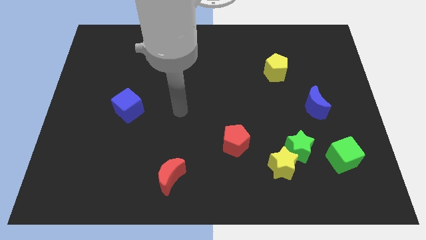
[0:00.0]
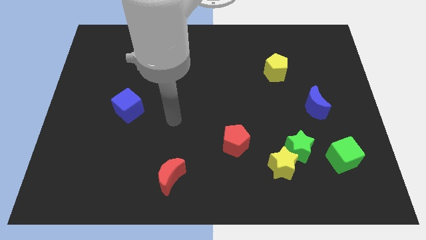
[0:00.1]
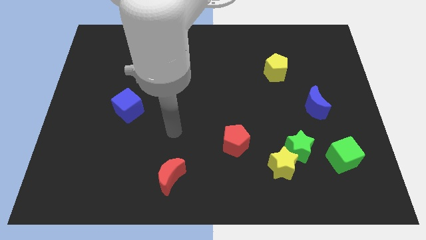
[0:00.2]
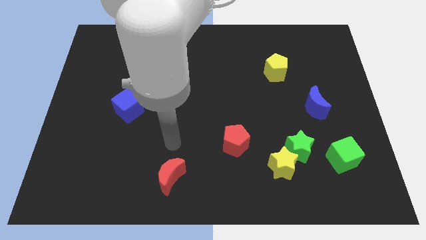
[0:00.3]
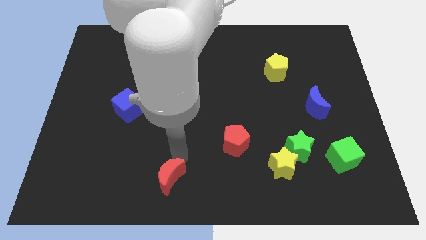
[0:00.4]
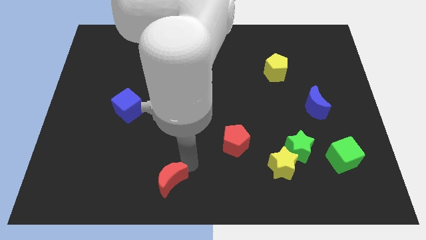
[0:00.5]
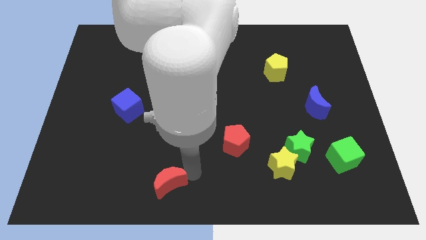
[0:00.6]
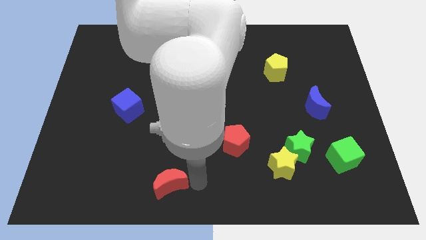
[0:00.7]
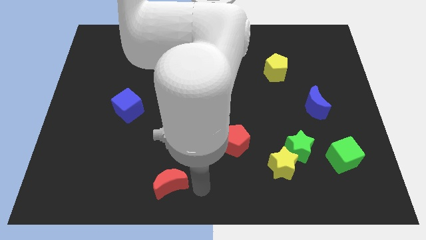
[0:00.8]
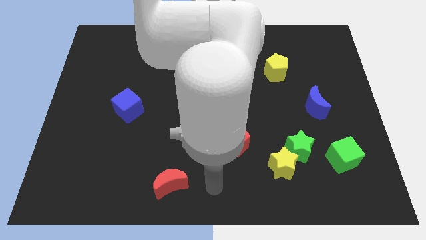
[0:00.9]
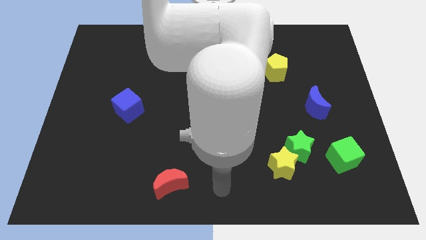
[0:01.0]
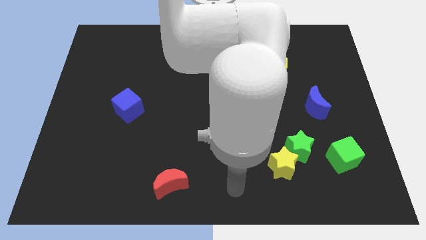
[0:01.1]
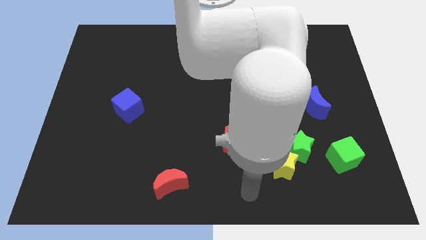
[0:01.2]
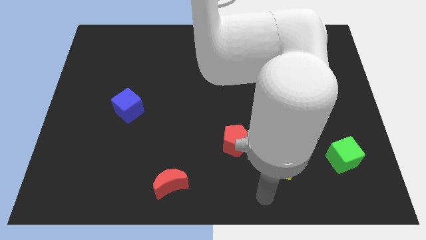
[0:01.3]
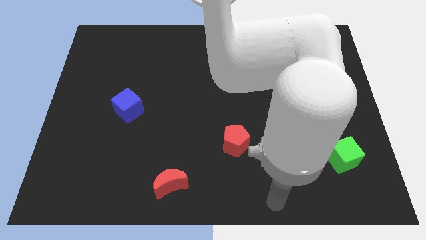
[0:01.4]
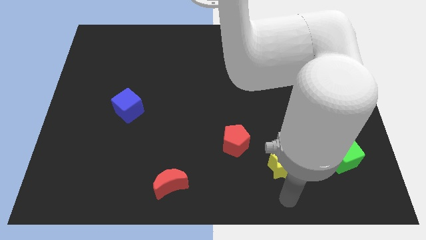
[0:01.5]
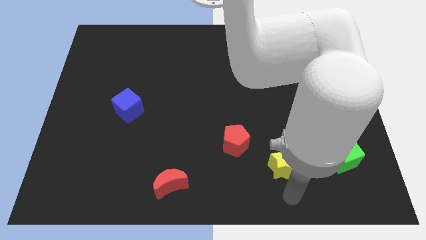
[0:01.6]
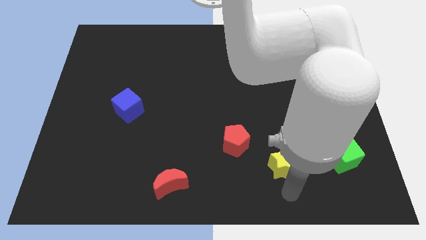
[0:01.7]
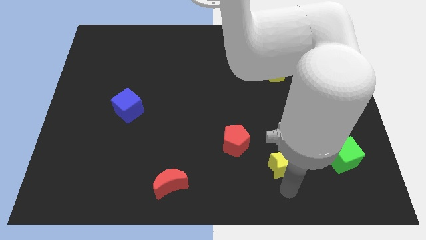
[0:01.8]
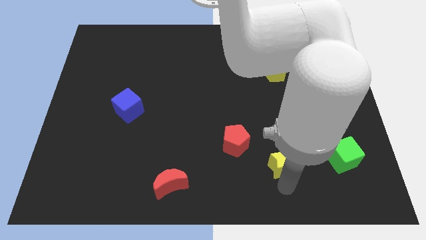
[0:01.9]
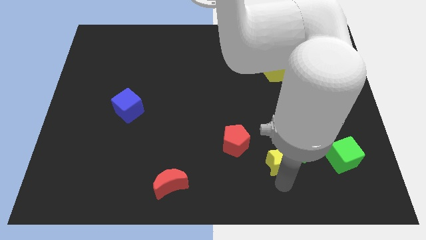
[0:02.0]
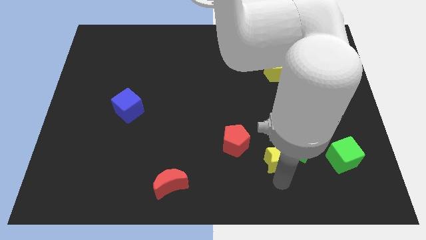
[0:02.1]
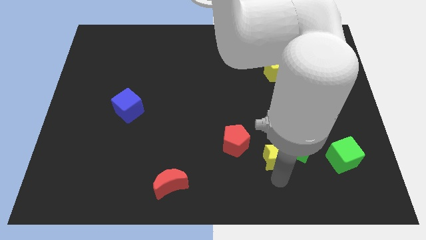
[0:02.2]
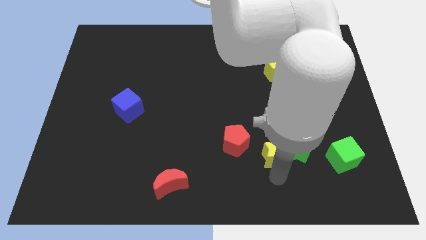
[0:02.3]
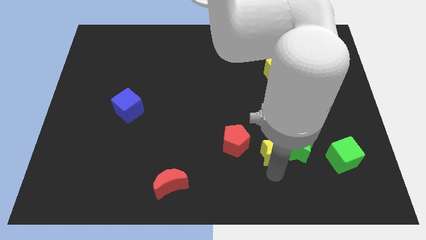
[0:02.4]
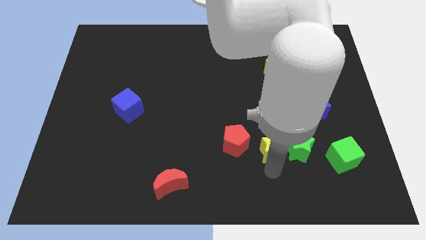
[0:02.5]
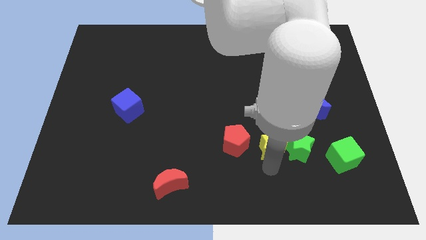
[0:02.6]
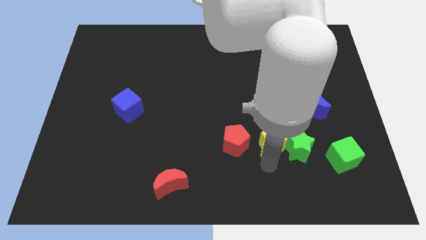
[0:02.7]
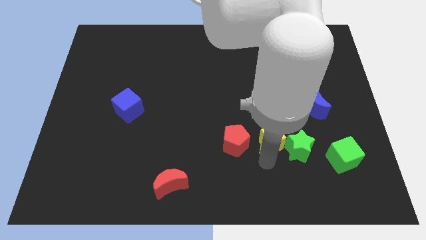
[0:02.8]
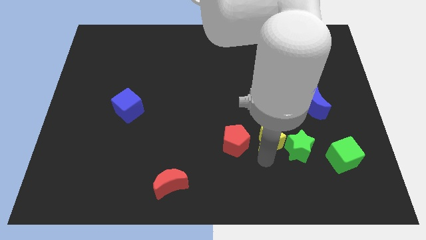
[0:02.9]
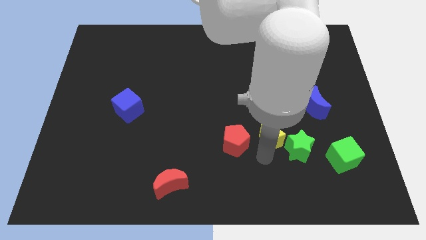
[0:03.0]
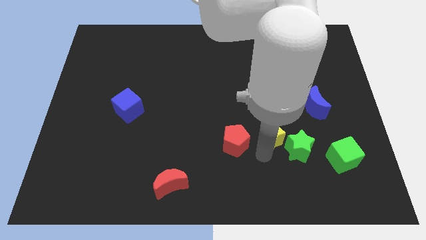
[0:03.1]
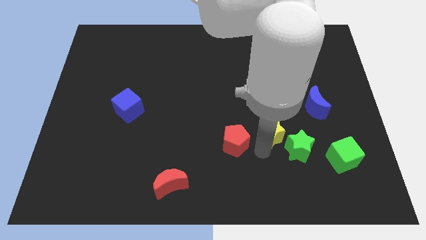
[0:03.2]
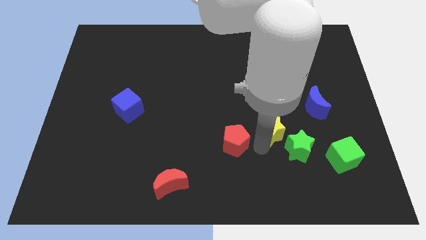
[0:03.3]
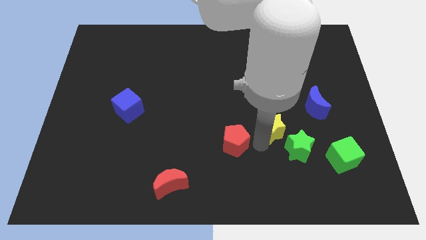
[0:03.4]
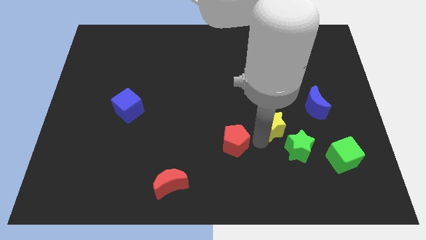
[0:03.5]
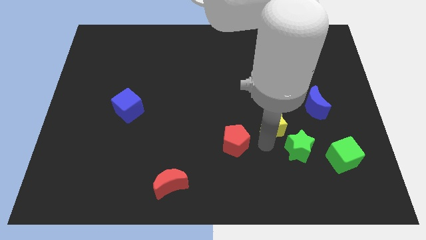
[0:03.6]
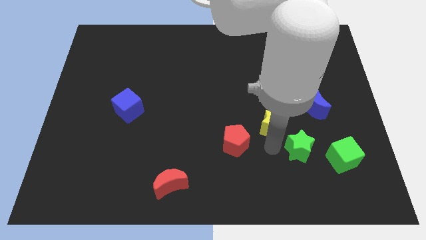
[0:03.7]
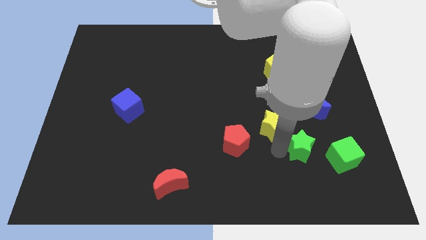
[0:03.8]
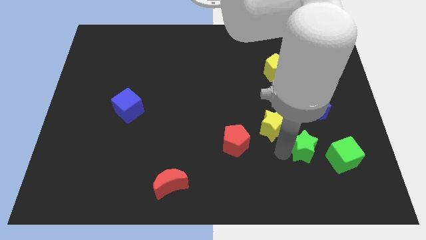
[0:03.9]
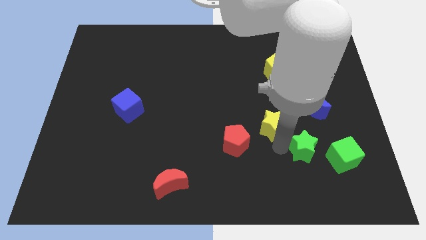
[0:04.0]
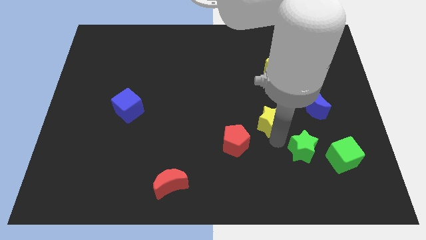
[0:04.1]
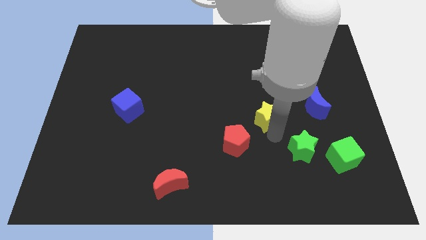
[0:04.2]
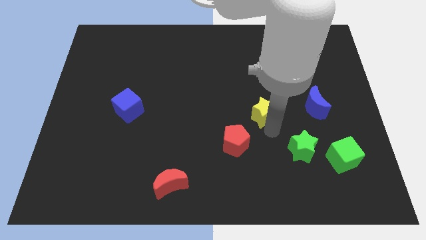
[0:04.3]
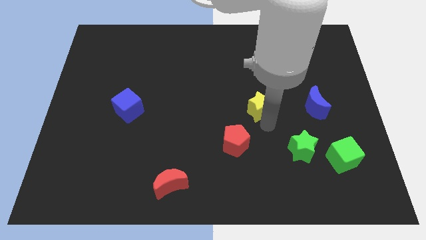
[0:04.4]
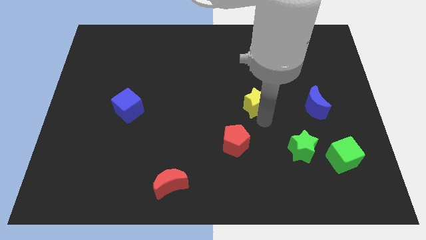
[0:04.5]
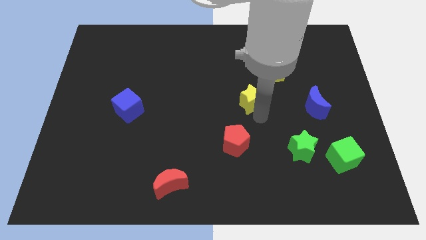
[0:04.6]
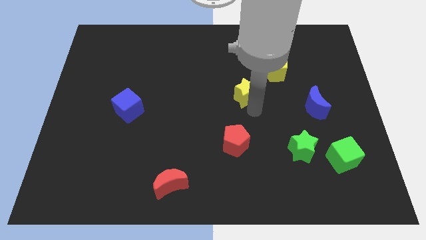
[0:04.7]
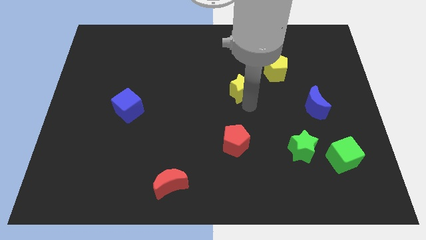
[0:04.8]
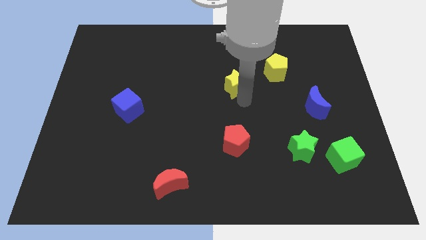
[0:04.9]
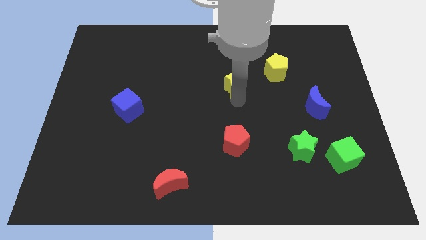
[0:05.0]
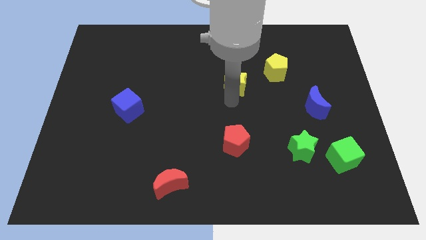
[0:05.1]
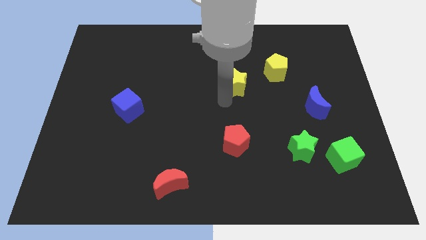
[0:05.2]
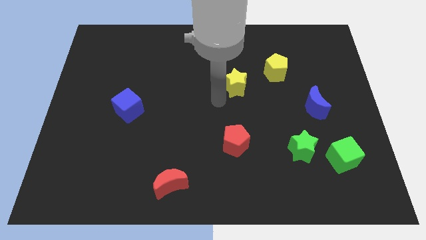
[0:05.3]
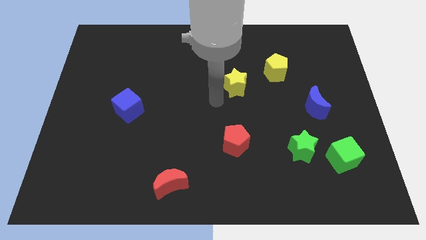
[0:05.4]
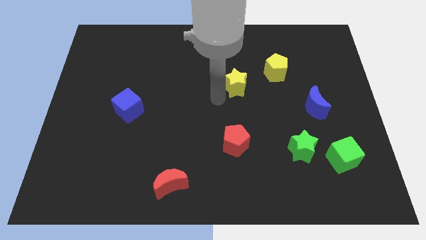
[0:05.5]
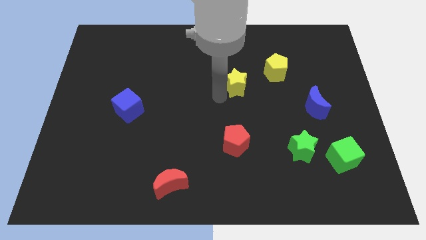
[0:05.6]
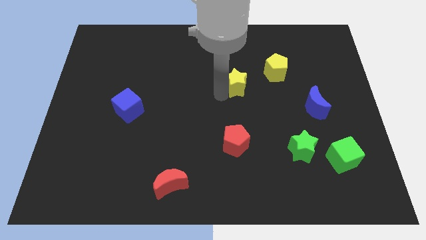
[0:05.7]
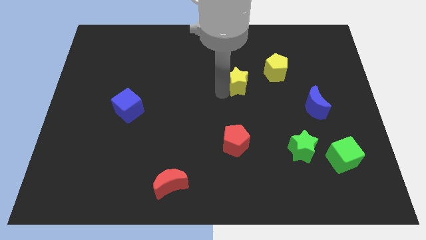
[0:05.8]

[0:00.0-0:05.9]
move the yellow star upwards

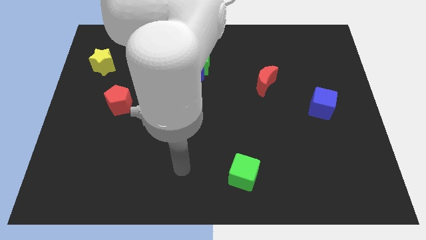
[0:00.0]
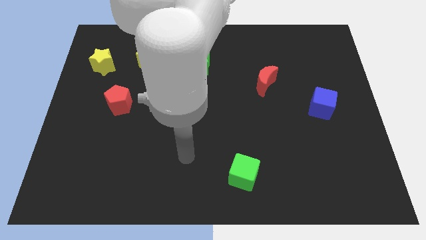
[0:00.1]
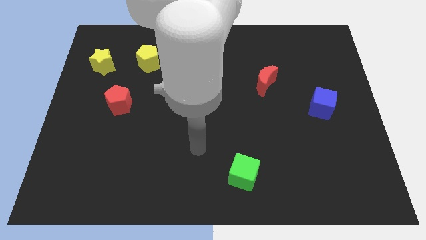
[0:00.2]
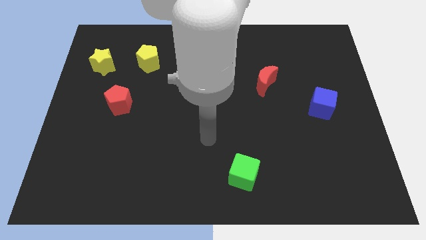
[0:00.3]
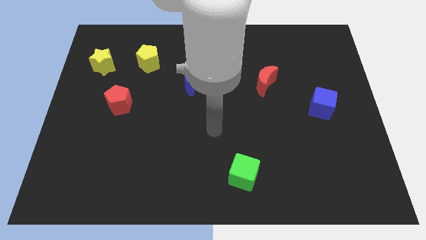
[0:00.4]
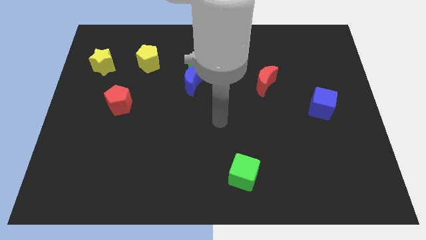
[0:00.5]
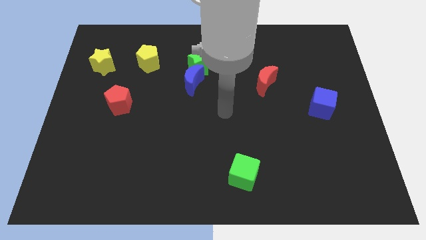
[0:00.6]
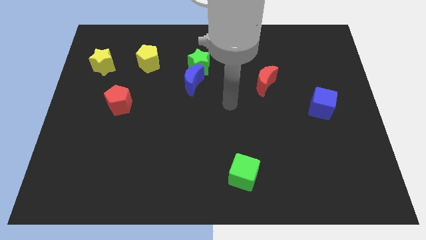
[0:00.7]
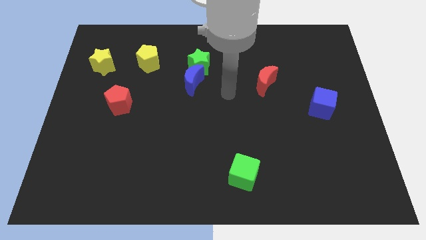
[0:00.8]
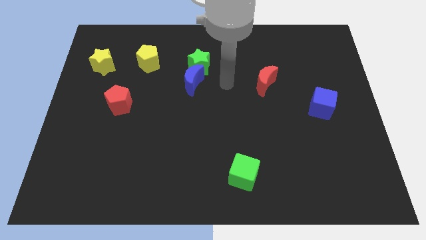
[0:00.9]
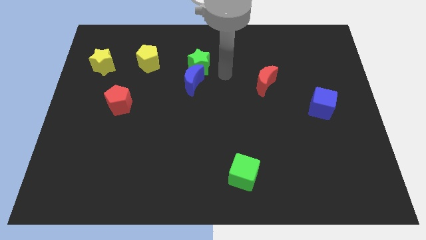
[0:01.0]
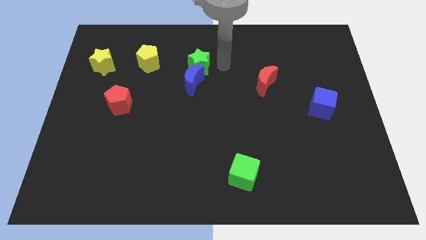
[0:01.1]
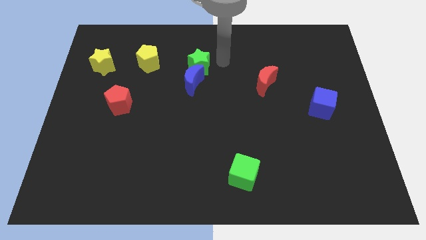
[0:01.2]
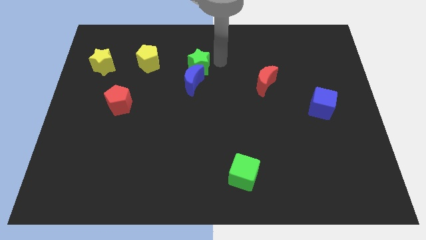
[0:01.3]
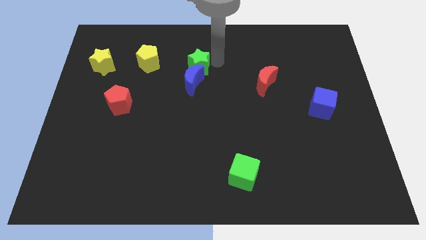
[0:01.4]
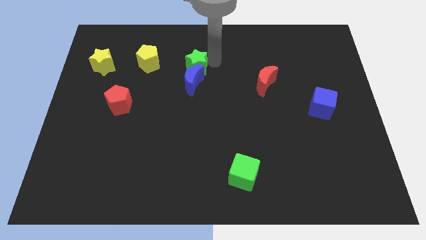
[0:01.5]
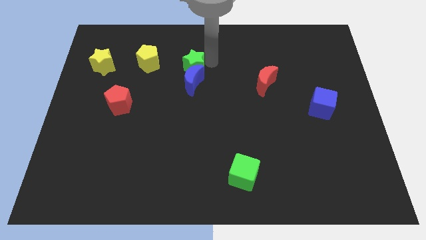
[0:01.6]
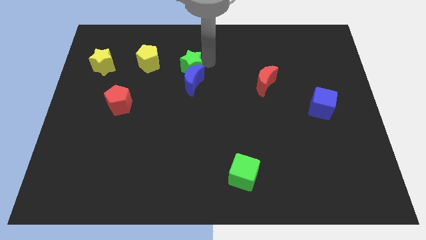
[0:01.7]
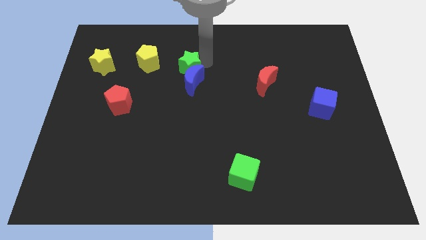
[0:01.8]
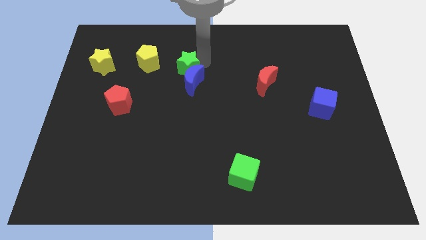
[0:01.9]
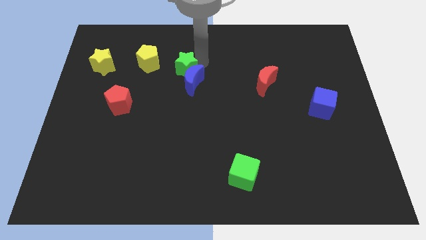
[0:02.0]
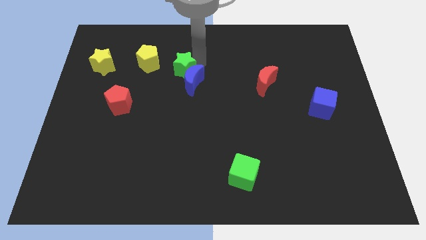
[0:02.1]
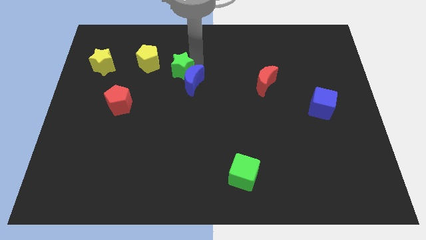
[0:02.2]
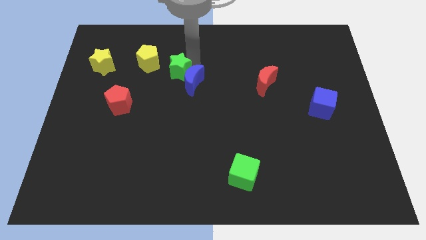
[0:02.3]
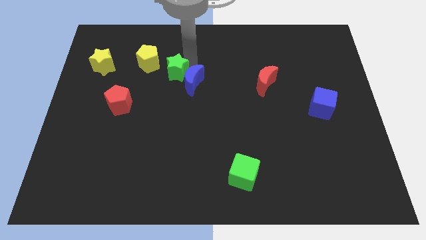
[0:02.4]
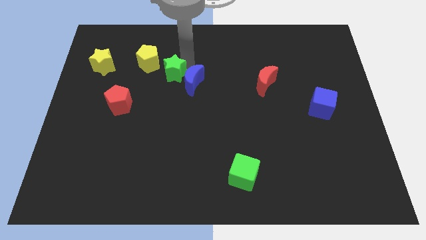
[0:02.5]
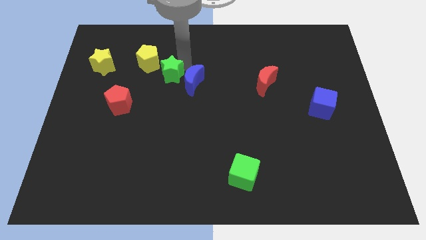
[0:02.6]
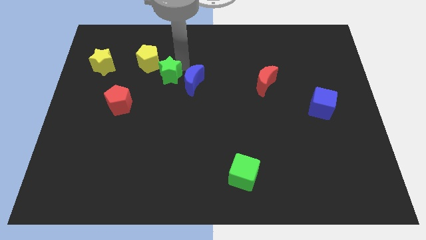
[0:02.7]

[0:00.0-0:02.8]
slide the green star down and left somewhat
